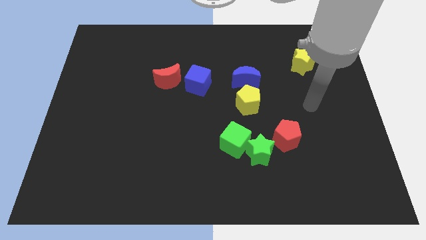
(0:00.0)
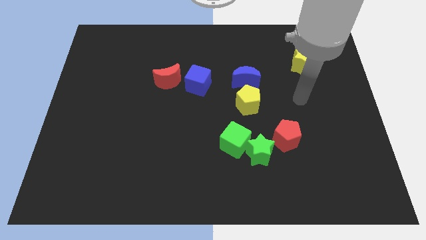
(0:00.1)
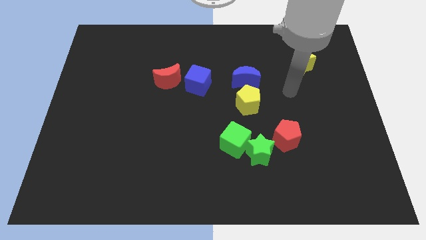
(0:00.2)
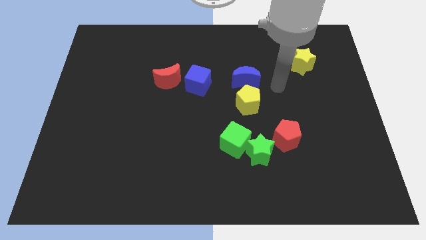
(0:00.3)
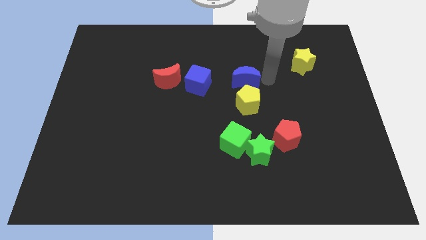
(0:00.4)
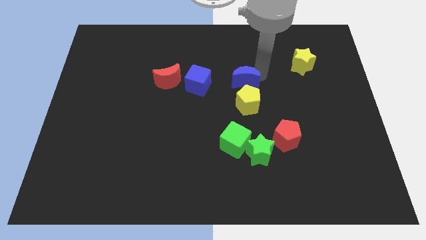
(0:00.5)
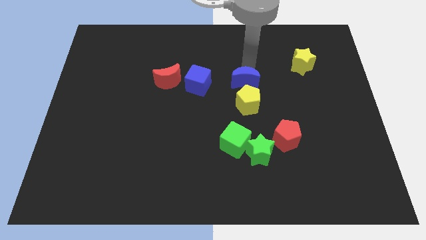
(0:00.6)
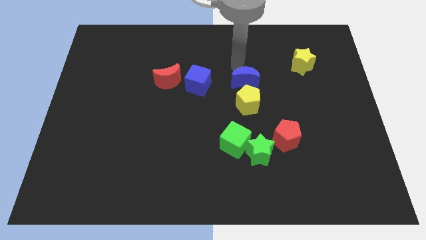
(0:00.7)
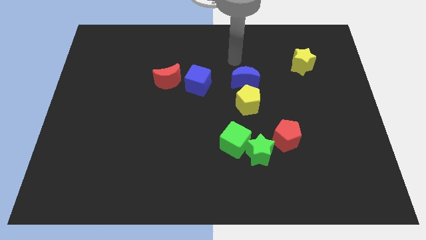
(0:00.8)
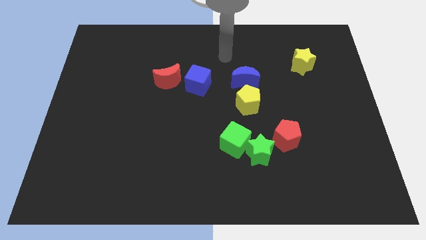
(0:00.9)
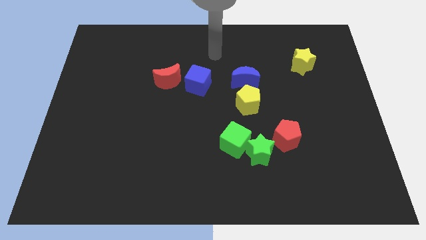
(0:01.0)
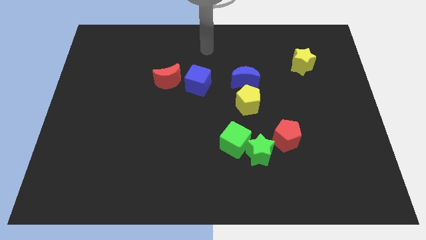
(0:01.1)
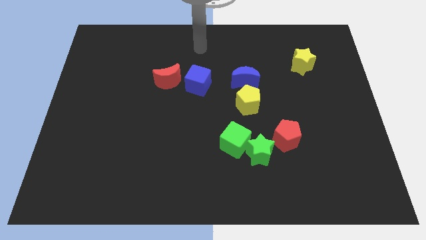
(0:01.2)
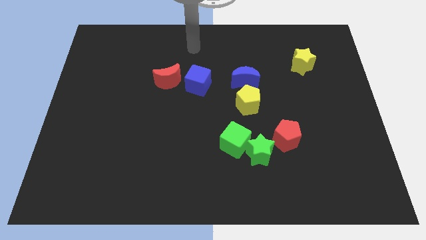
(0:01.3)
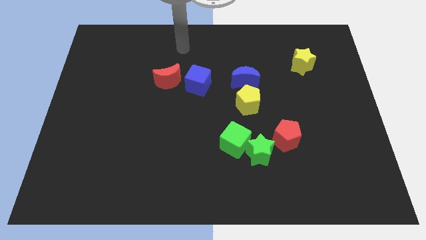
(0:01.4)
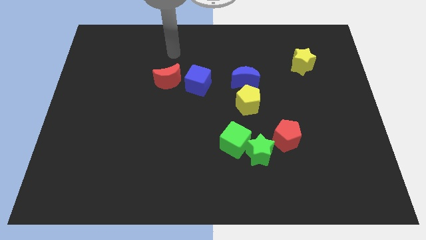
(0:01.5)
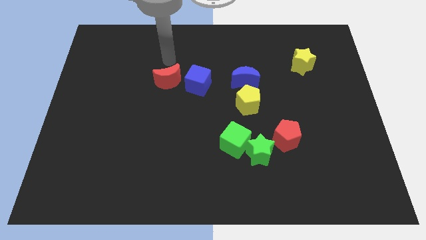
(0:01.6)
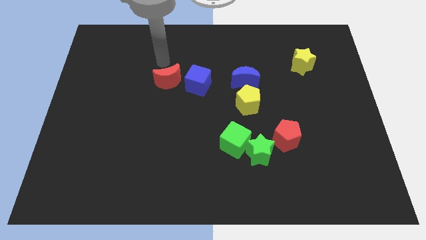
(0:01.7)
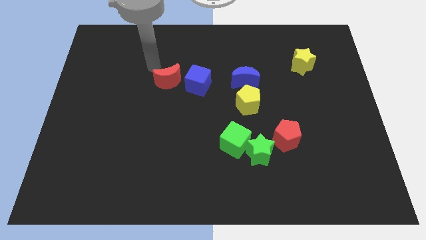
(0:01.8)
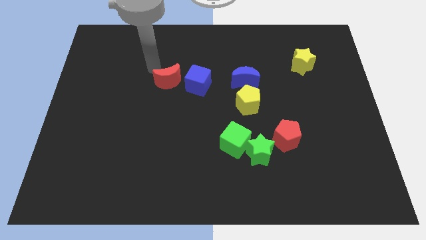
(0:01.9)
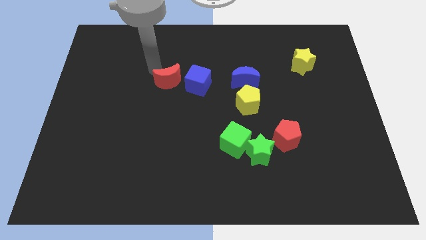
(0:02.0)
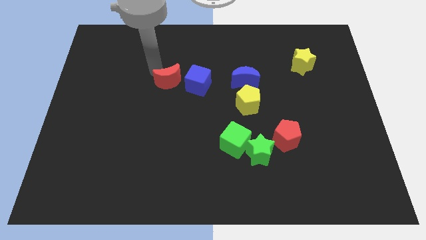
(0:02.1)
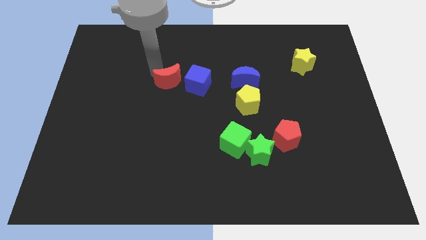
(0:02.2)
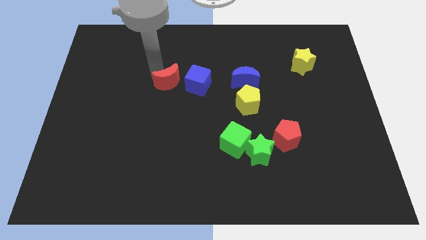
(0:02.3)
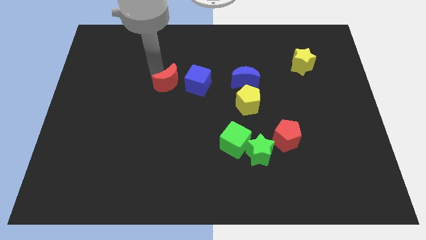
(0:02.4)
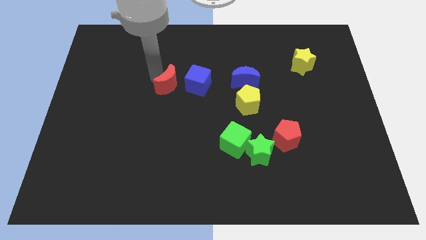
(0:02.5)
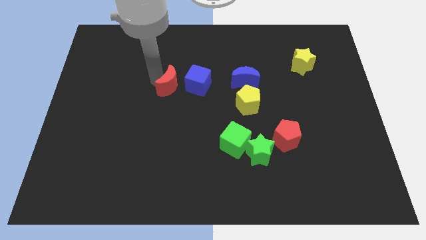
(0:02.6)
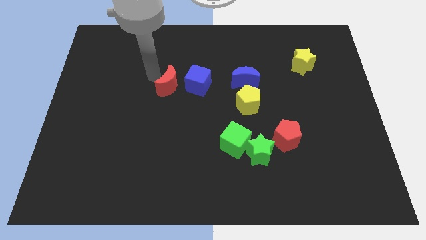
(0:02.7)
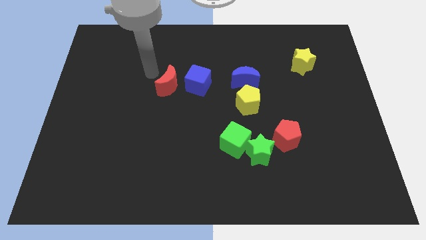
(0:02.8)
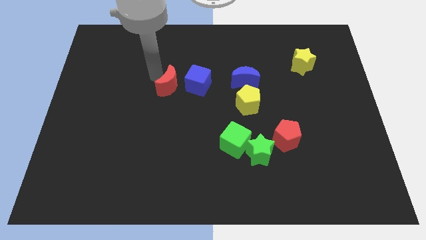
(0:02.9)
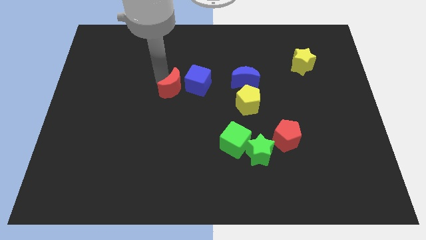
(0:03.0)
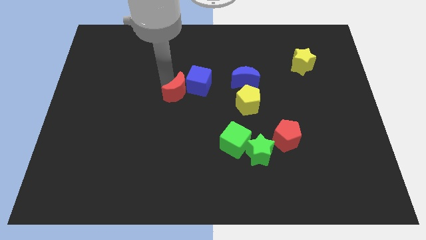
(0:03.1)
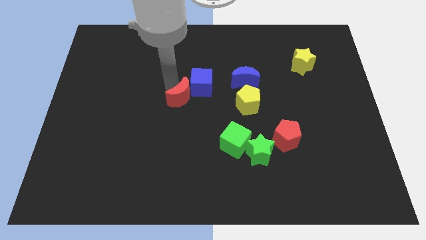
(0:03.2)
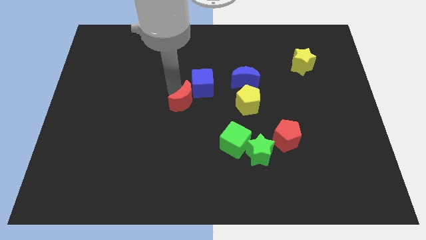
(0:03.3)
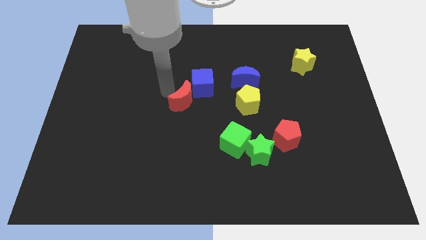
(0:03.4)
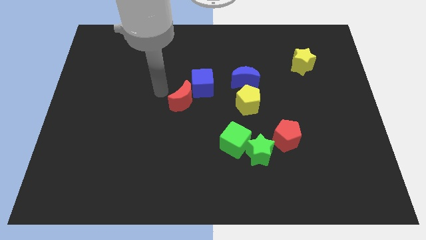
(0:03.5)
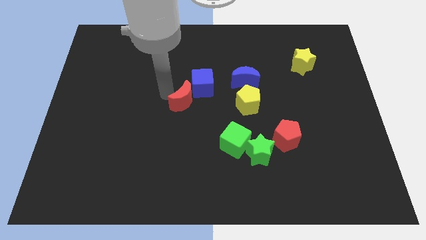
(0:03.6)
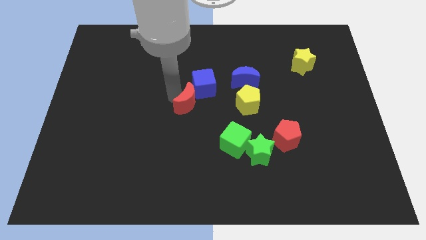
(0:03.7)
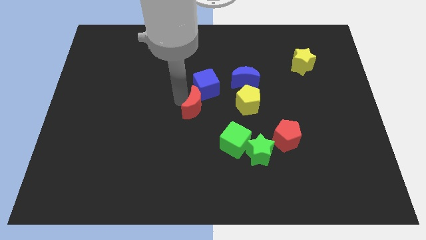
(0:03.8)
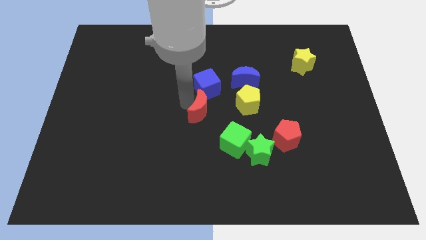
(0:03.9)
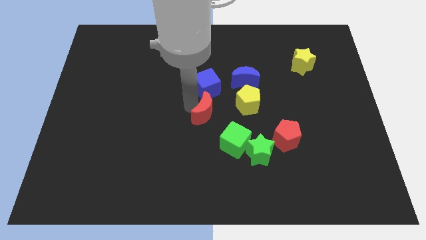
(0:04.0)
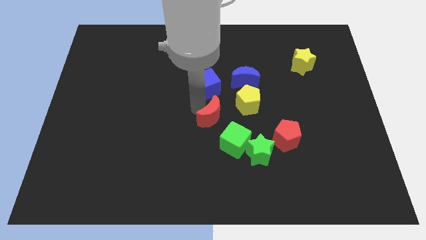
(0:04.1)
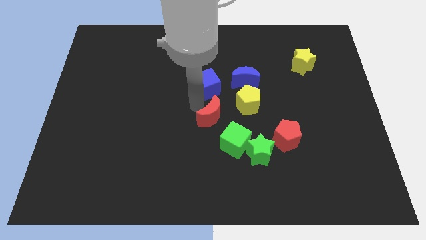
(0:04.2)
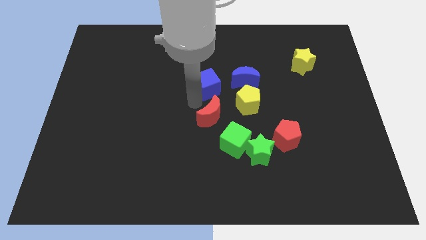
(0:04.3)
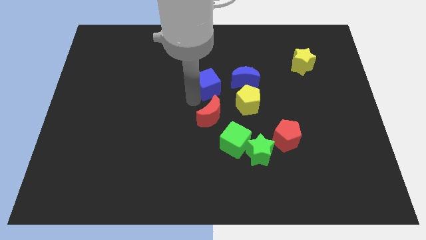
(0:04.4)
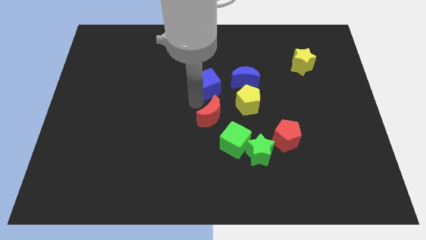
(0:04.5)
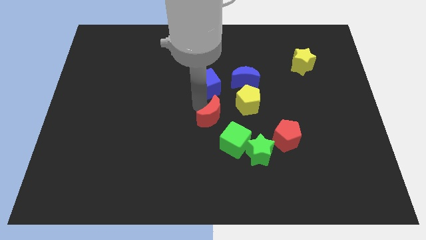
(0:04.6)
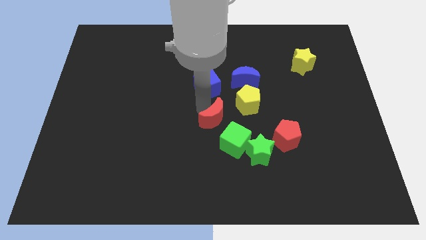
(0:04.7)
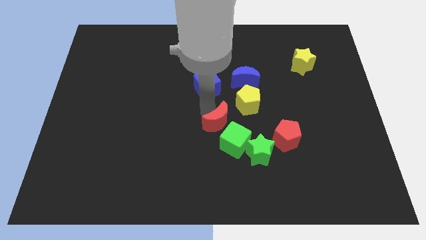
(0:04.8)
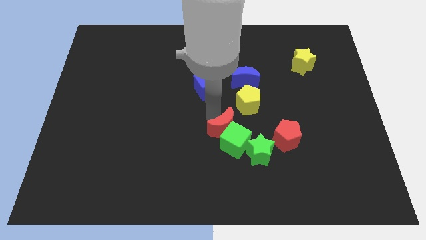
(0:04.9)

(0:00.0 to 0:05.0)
put the red moon next to the green cube

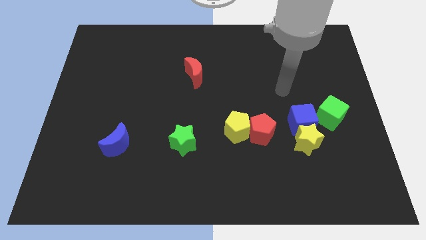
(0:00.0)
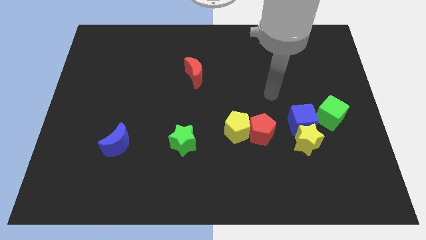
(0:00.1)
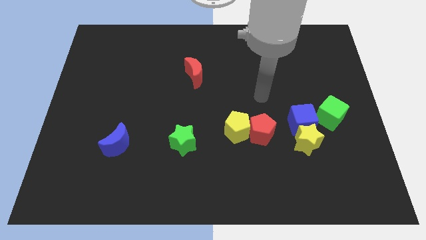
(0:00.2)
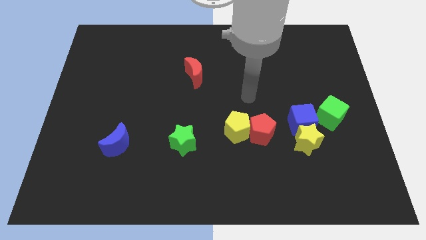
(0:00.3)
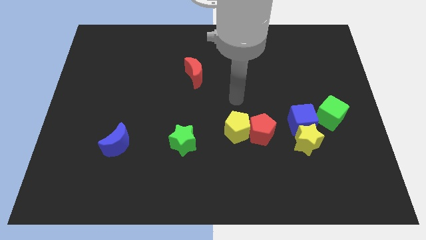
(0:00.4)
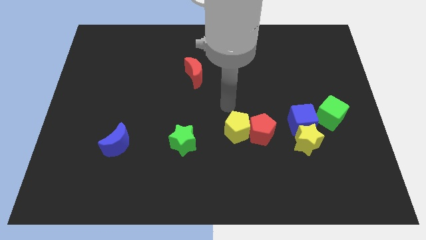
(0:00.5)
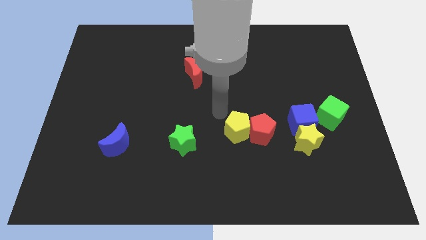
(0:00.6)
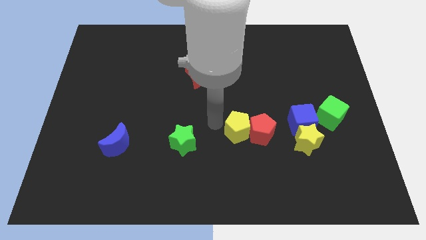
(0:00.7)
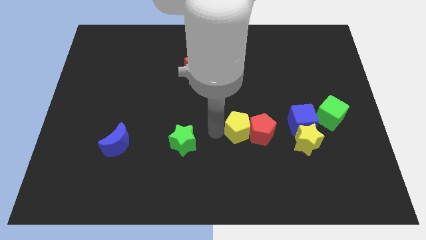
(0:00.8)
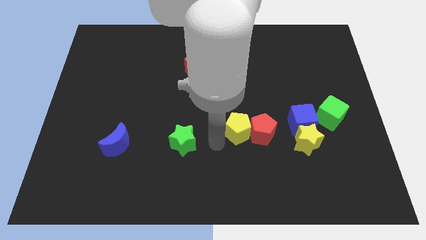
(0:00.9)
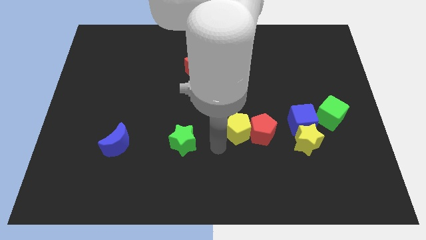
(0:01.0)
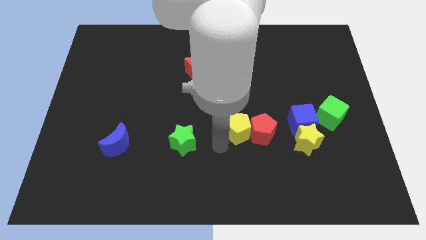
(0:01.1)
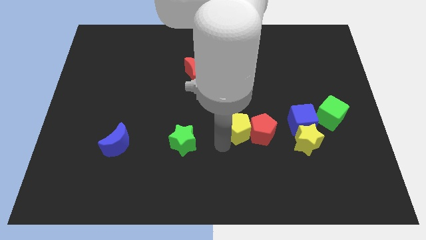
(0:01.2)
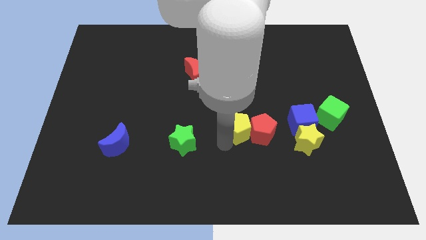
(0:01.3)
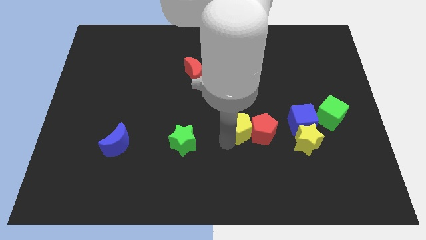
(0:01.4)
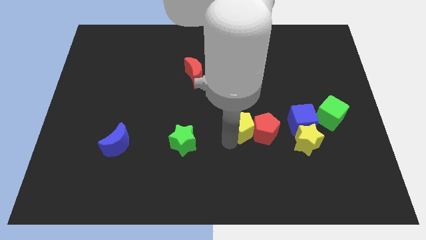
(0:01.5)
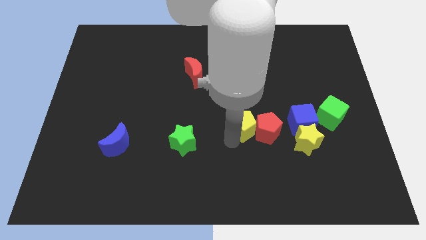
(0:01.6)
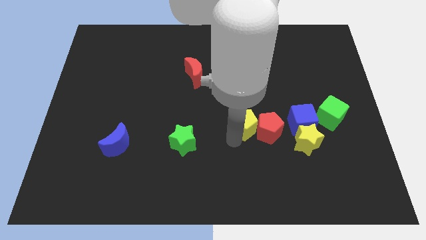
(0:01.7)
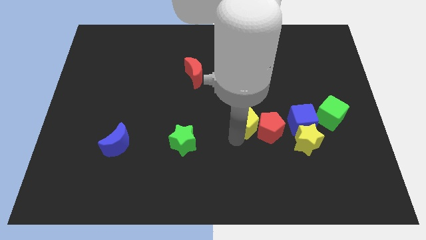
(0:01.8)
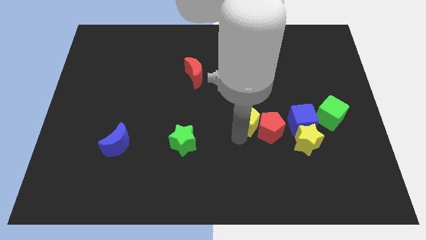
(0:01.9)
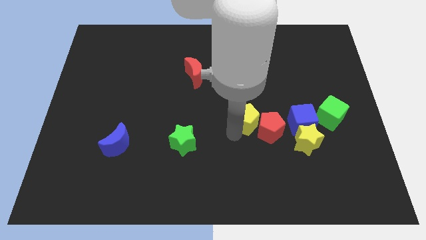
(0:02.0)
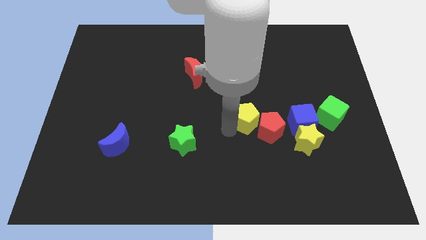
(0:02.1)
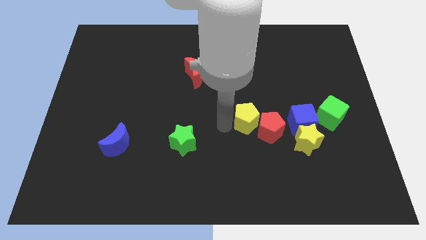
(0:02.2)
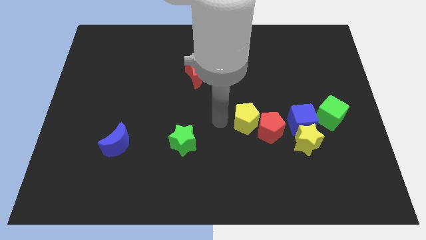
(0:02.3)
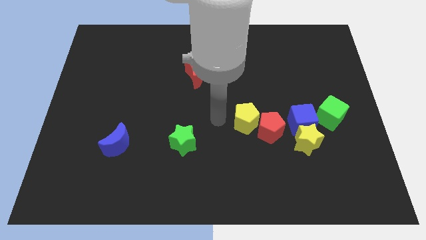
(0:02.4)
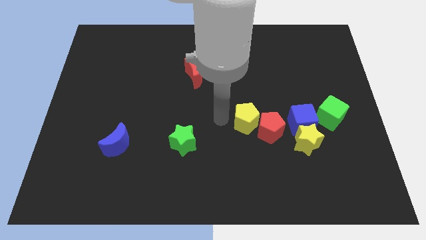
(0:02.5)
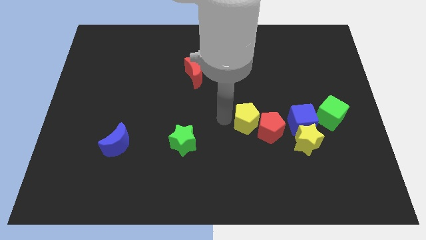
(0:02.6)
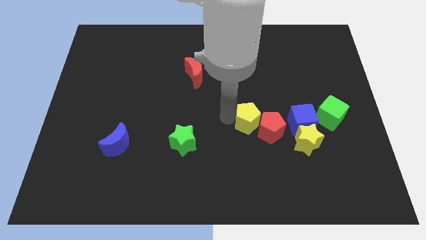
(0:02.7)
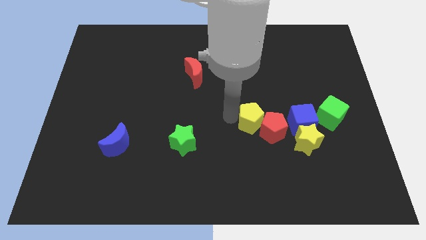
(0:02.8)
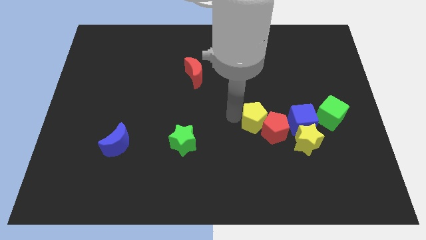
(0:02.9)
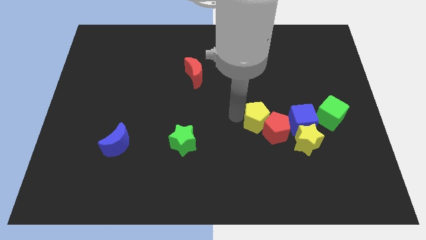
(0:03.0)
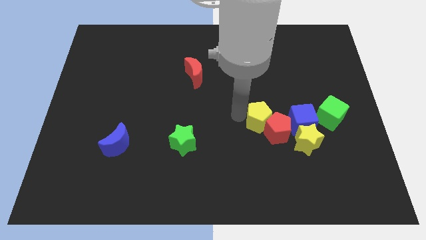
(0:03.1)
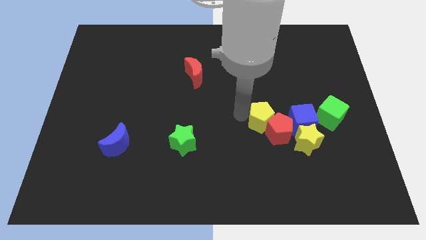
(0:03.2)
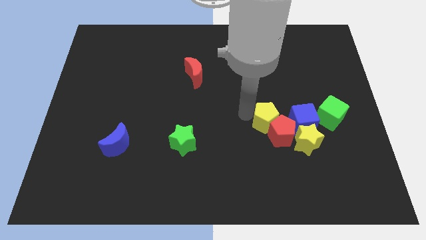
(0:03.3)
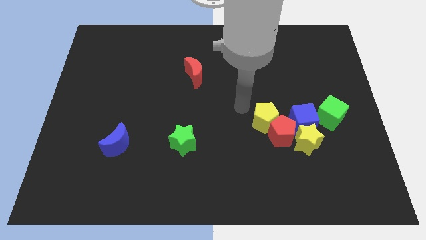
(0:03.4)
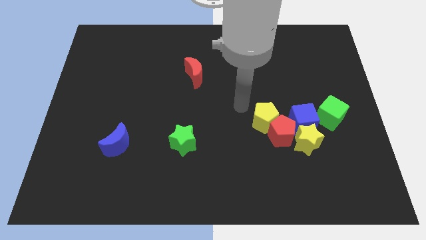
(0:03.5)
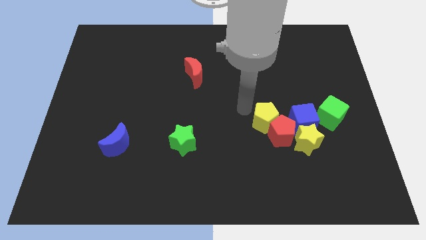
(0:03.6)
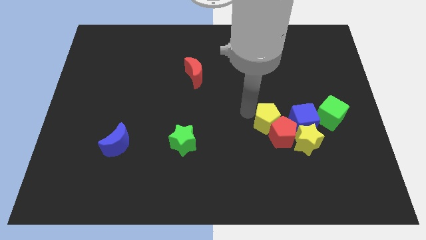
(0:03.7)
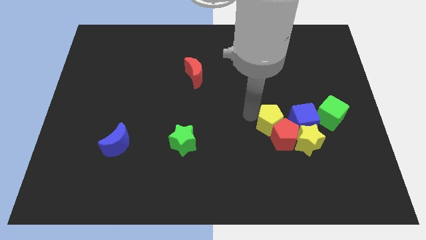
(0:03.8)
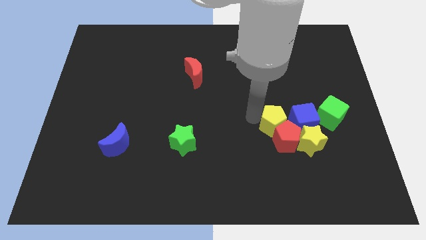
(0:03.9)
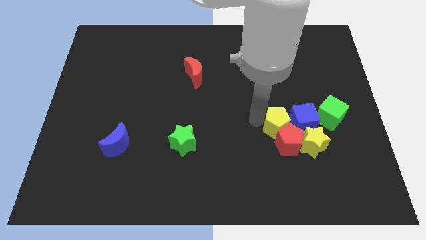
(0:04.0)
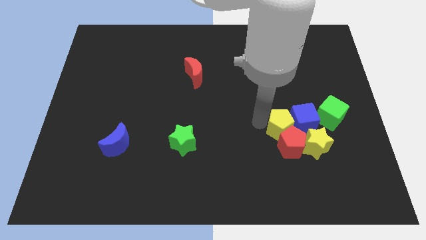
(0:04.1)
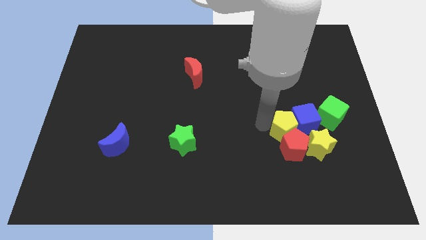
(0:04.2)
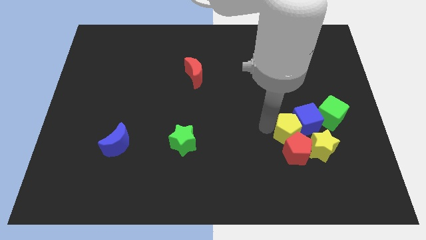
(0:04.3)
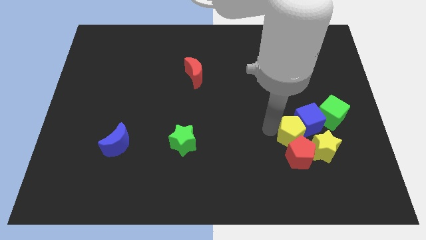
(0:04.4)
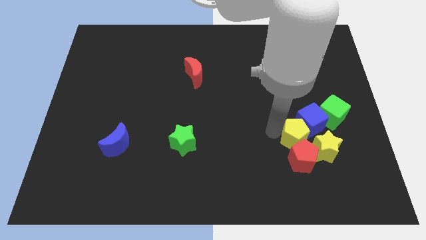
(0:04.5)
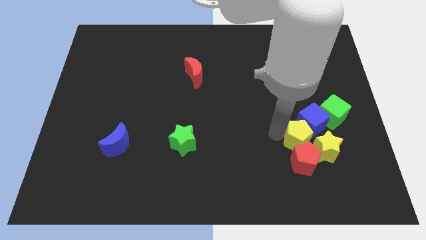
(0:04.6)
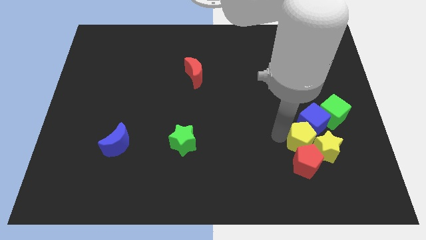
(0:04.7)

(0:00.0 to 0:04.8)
push the yellow pentagon close to the yellow star
